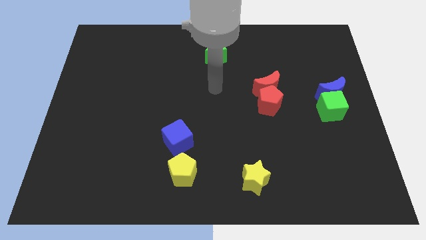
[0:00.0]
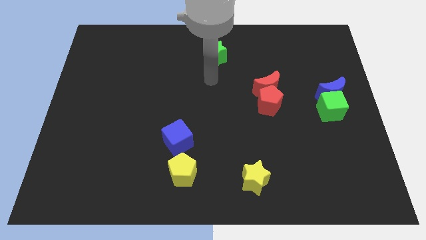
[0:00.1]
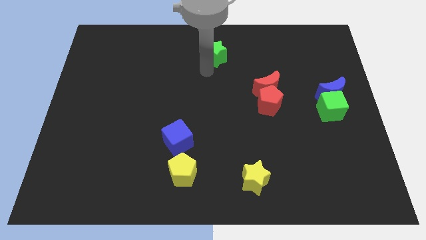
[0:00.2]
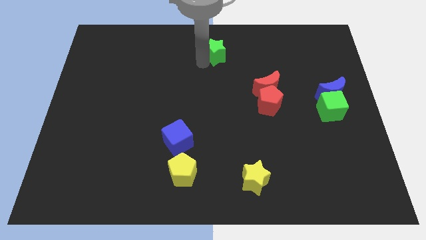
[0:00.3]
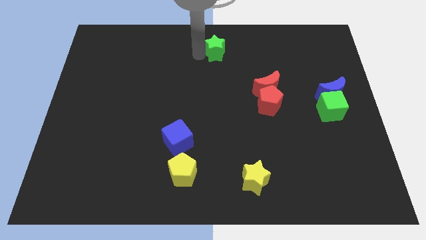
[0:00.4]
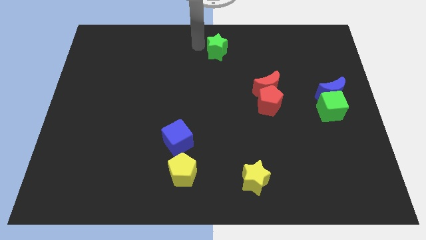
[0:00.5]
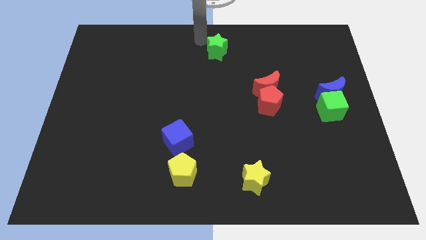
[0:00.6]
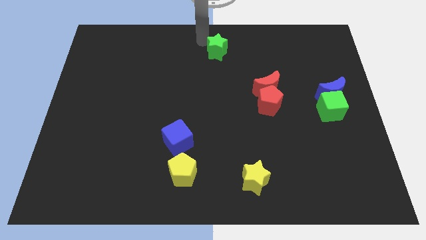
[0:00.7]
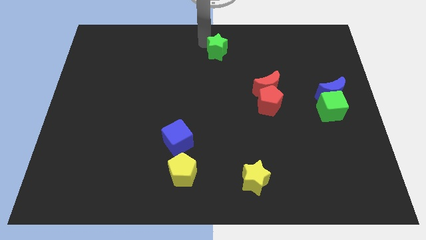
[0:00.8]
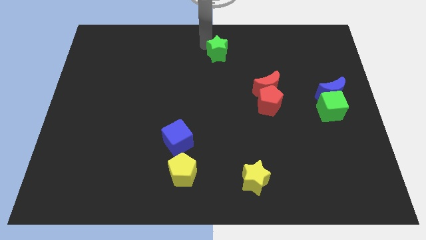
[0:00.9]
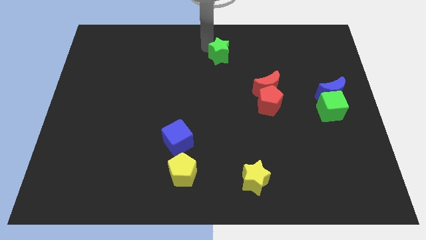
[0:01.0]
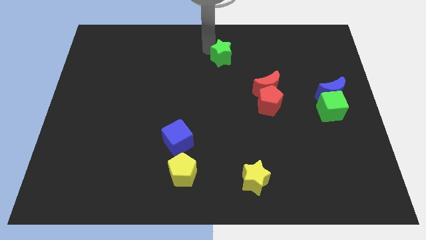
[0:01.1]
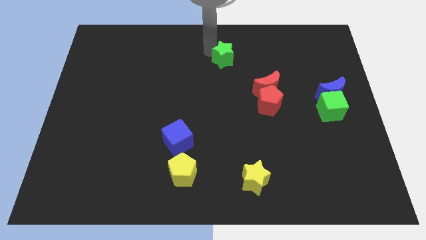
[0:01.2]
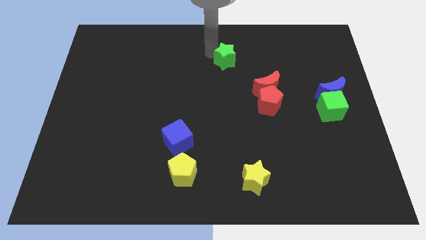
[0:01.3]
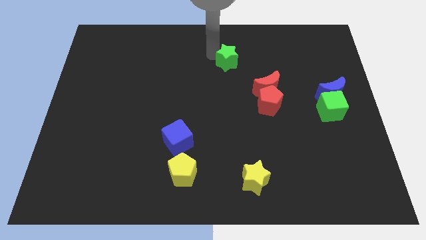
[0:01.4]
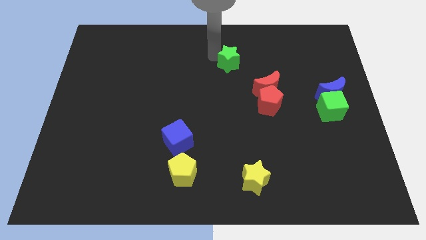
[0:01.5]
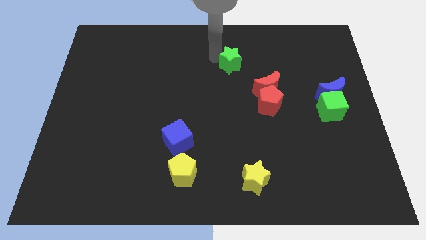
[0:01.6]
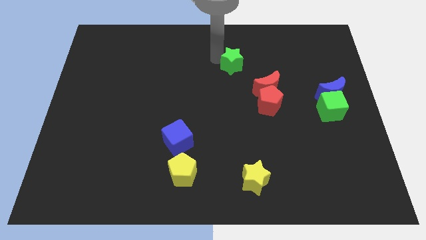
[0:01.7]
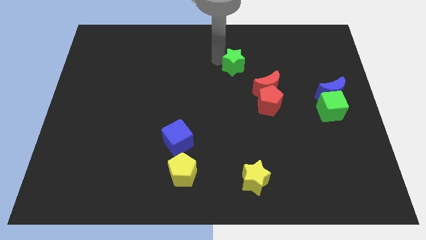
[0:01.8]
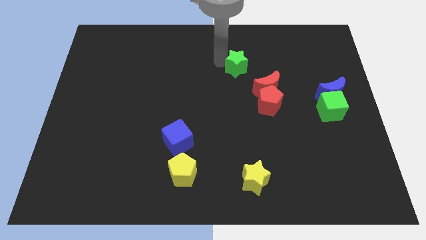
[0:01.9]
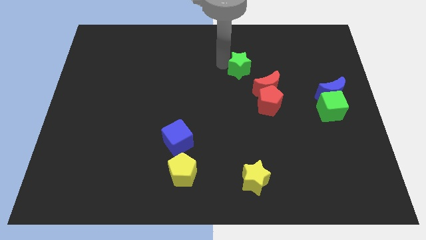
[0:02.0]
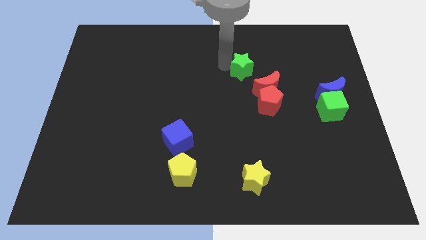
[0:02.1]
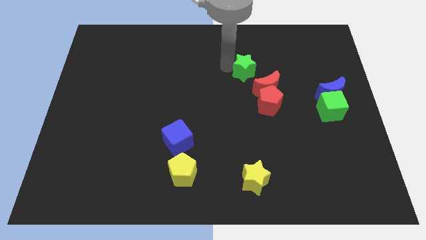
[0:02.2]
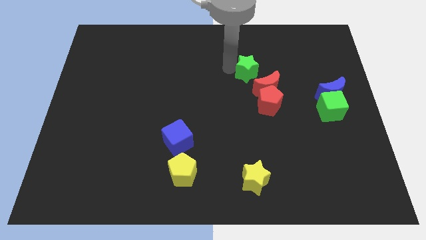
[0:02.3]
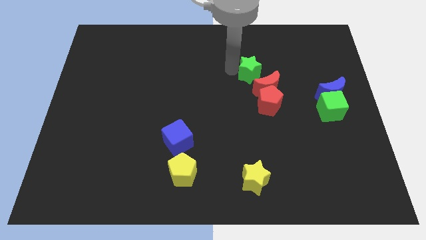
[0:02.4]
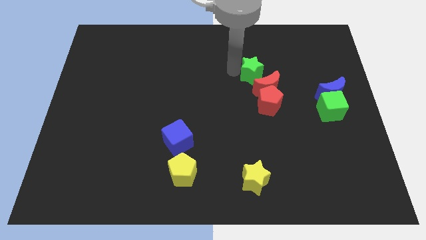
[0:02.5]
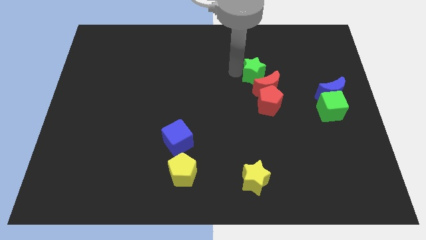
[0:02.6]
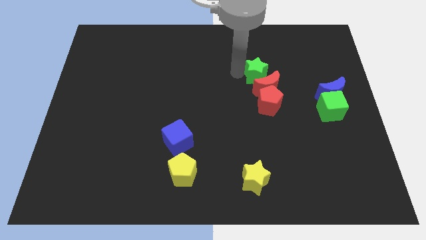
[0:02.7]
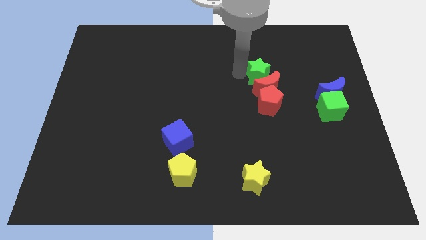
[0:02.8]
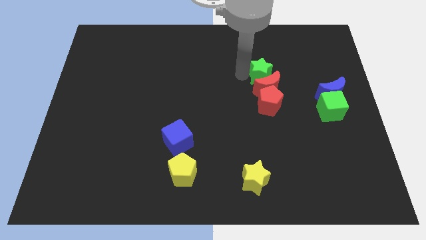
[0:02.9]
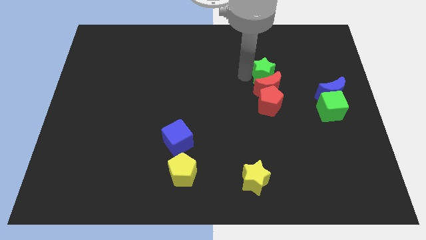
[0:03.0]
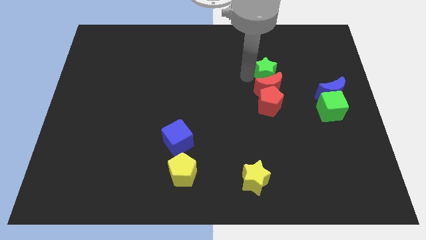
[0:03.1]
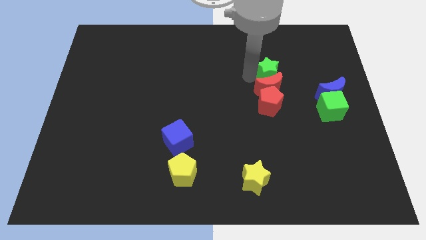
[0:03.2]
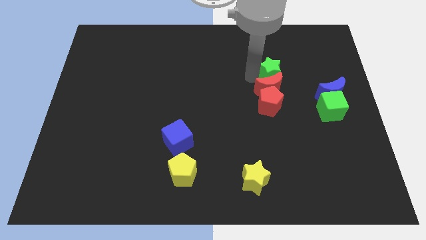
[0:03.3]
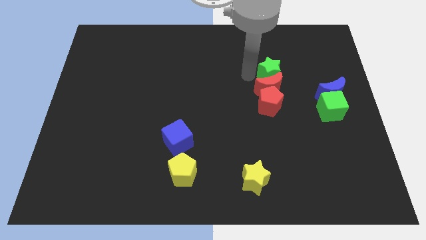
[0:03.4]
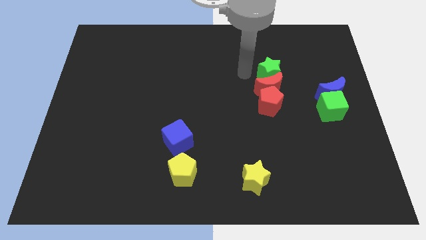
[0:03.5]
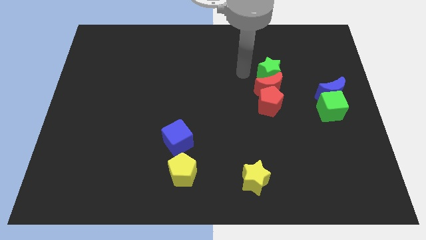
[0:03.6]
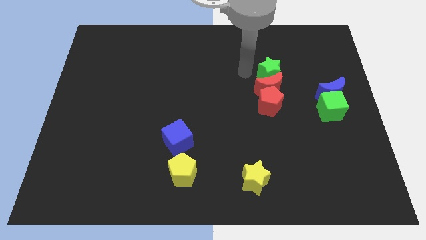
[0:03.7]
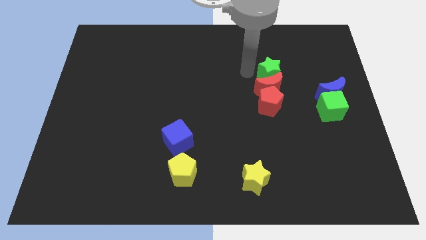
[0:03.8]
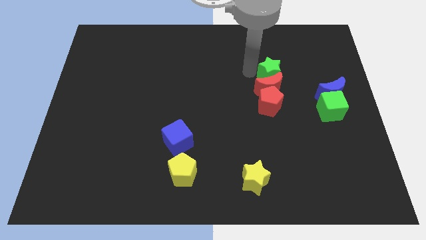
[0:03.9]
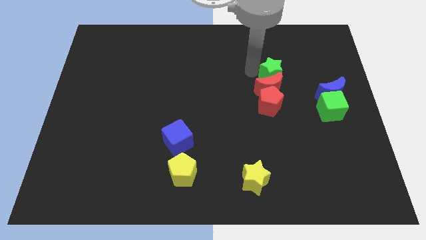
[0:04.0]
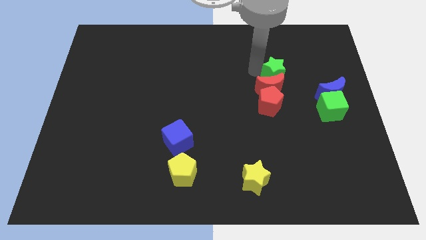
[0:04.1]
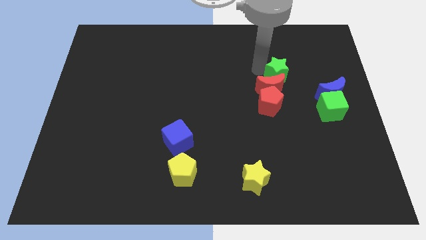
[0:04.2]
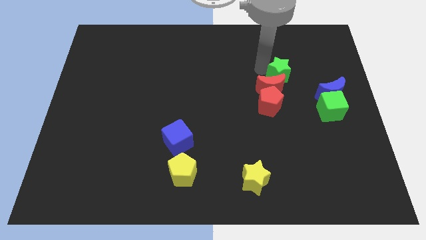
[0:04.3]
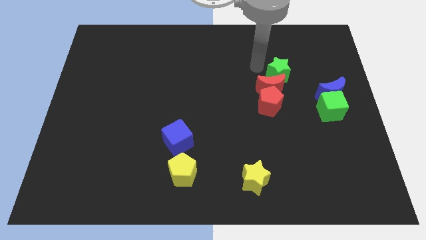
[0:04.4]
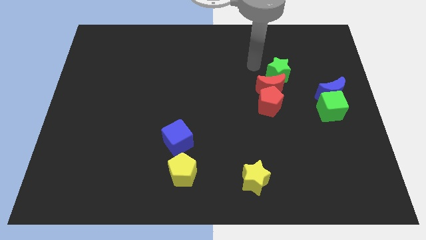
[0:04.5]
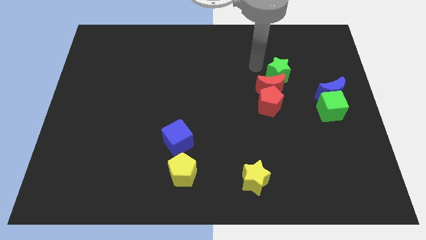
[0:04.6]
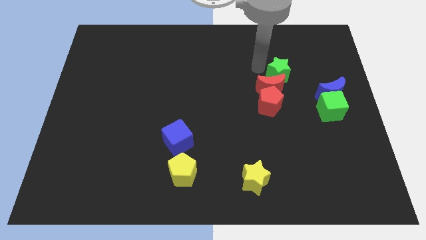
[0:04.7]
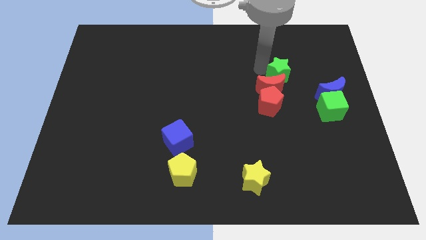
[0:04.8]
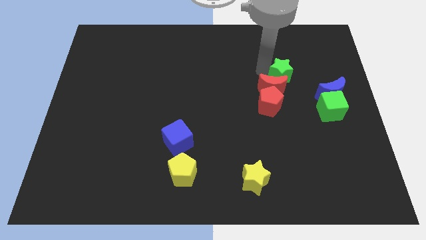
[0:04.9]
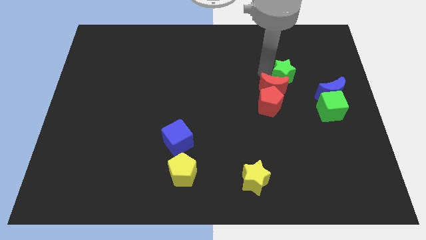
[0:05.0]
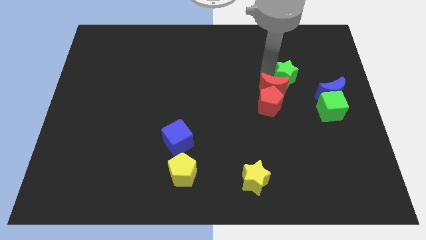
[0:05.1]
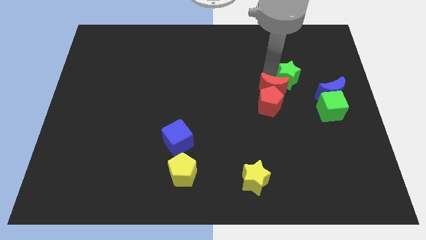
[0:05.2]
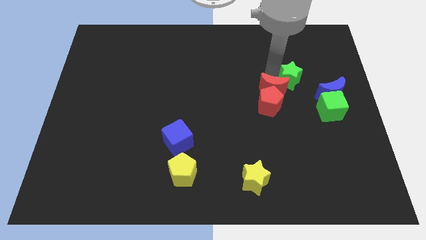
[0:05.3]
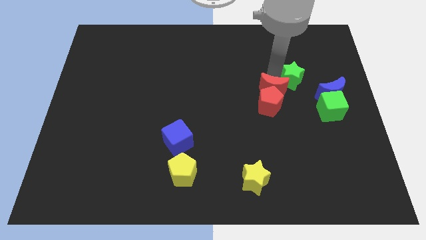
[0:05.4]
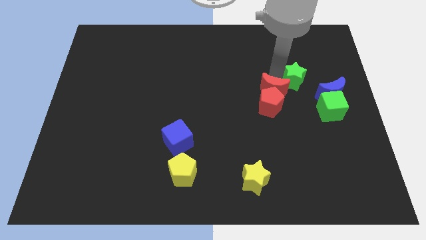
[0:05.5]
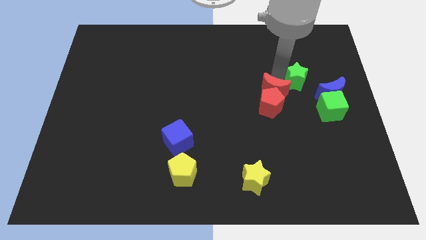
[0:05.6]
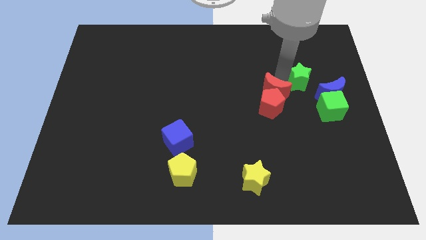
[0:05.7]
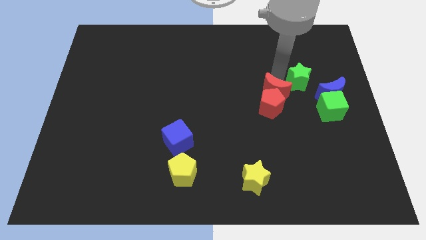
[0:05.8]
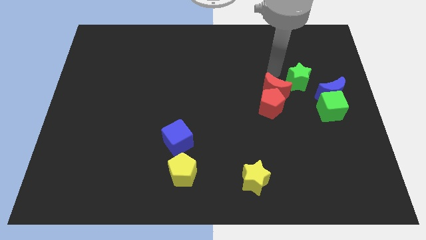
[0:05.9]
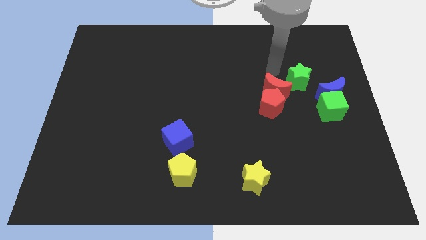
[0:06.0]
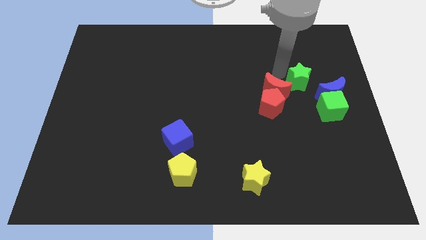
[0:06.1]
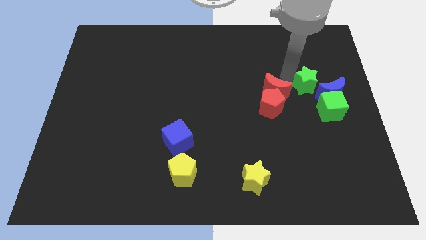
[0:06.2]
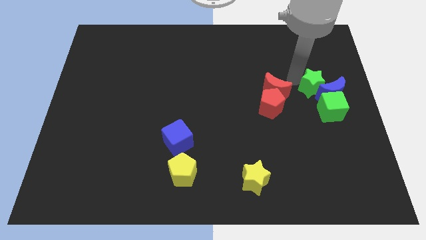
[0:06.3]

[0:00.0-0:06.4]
slide the green star to the blue moon

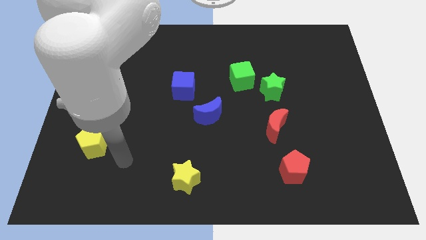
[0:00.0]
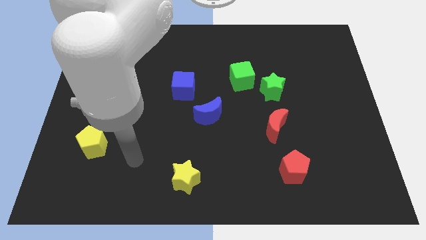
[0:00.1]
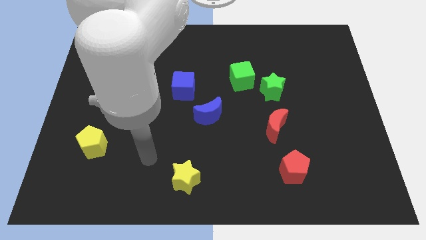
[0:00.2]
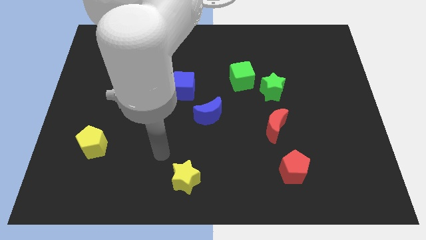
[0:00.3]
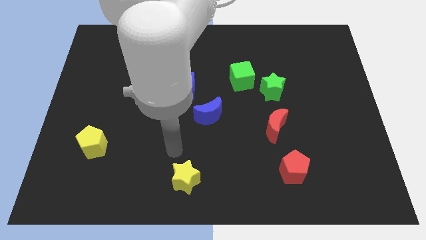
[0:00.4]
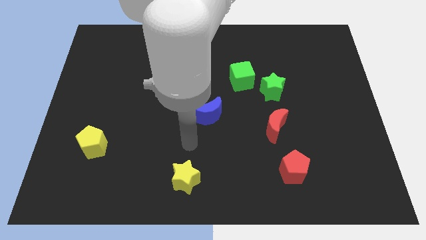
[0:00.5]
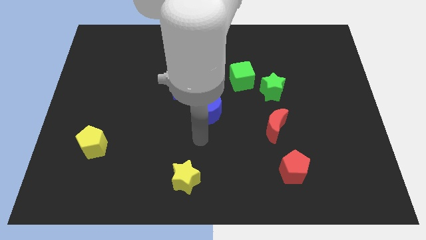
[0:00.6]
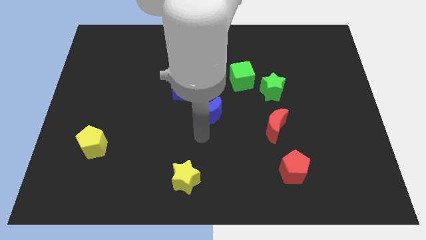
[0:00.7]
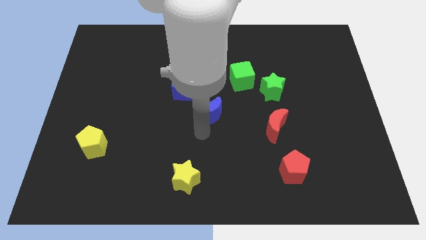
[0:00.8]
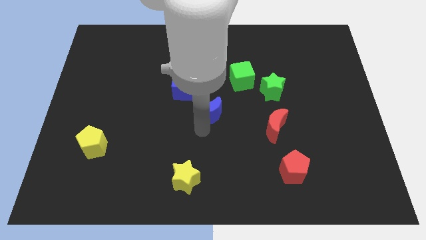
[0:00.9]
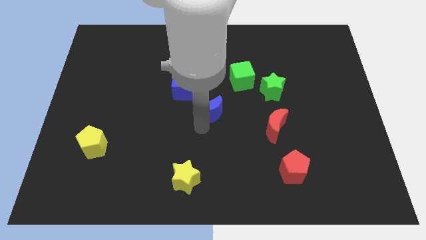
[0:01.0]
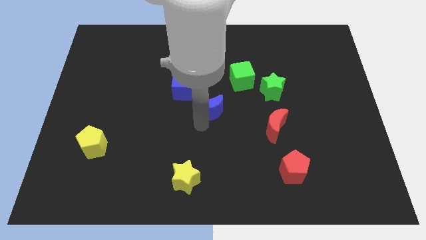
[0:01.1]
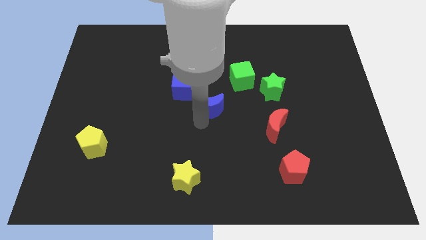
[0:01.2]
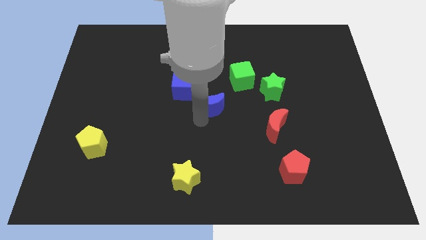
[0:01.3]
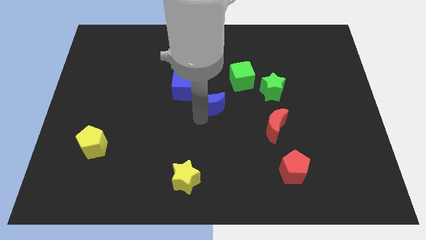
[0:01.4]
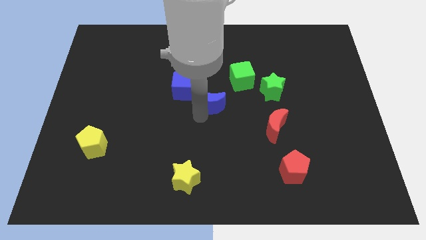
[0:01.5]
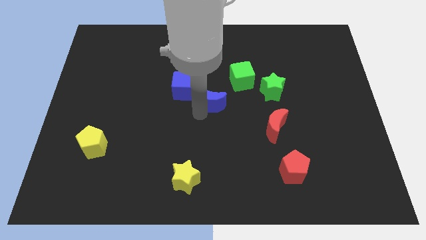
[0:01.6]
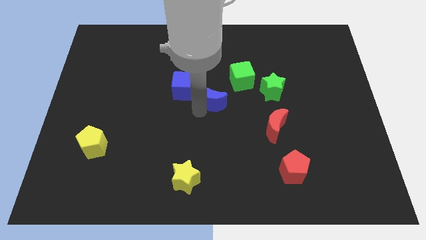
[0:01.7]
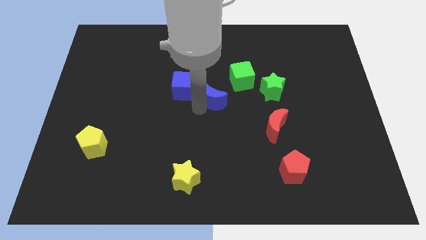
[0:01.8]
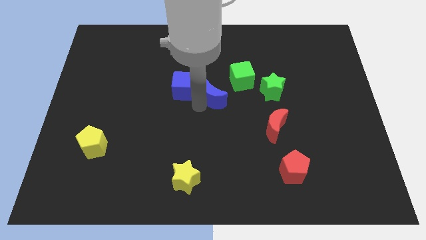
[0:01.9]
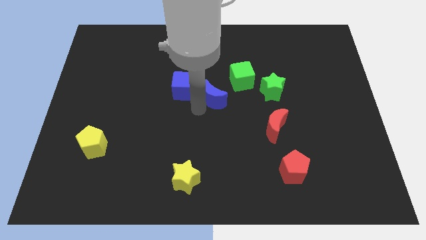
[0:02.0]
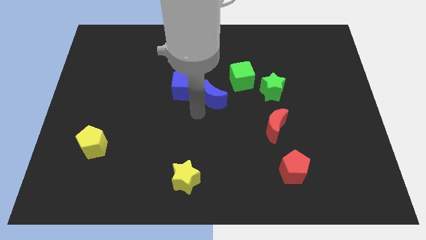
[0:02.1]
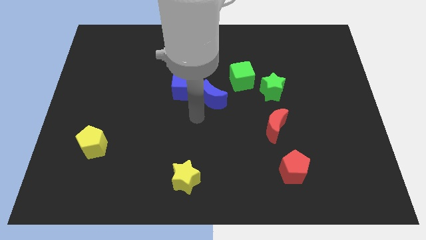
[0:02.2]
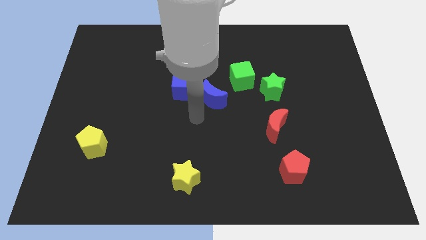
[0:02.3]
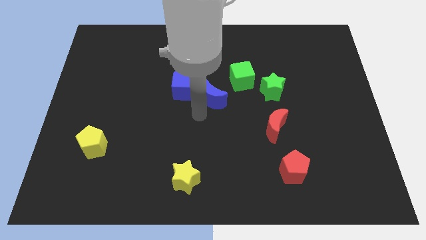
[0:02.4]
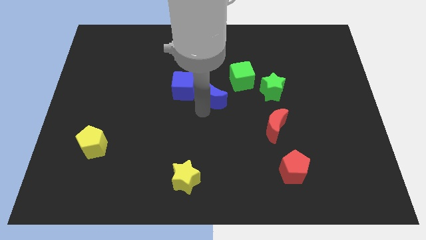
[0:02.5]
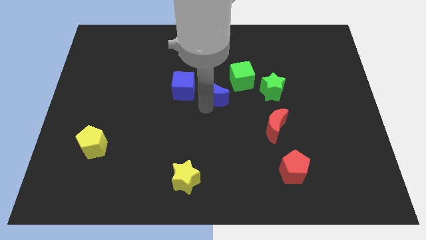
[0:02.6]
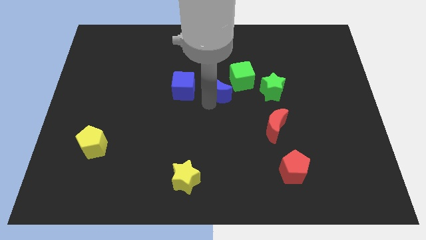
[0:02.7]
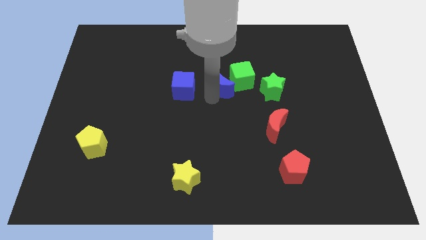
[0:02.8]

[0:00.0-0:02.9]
move the blue moon to the green cube
